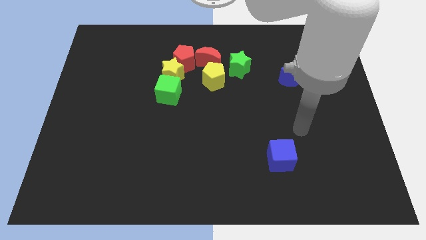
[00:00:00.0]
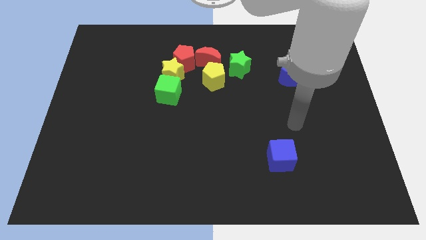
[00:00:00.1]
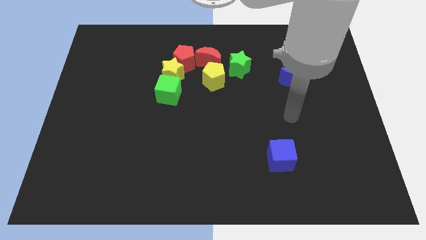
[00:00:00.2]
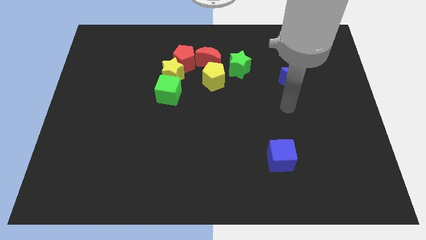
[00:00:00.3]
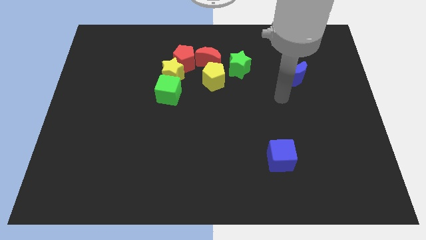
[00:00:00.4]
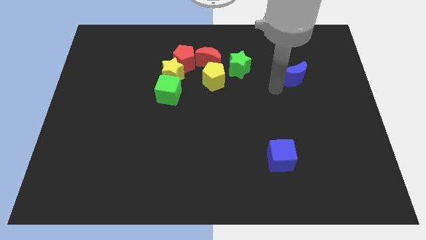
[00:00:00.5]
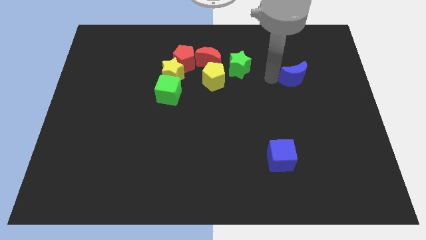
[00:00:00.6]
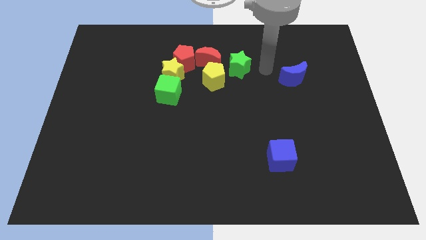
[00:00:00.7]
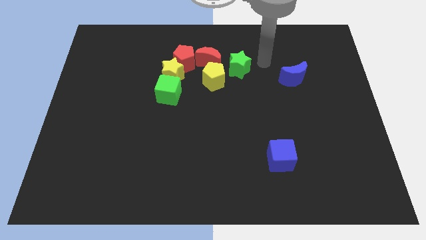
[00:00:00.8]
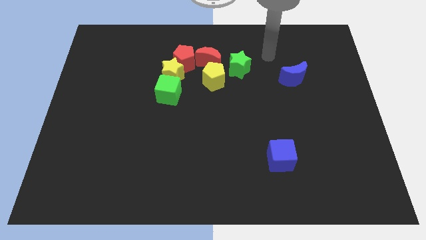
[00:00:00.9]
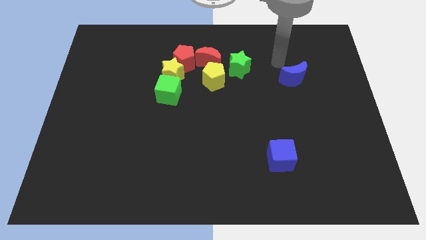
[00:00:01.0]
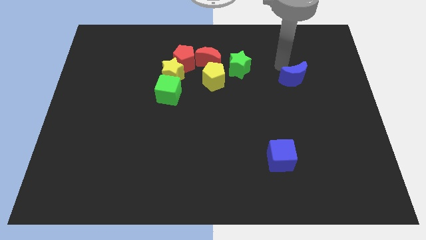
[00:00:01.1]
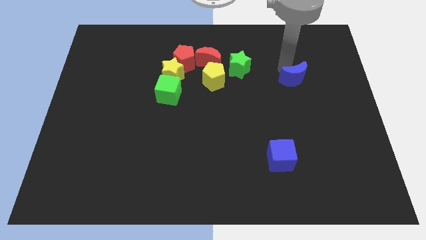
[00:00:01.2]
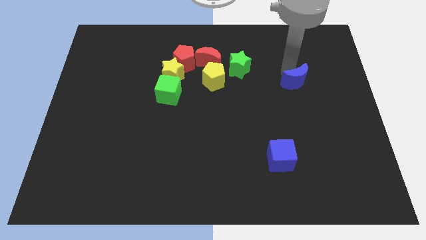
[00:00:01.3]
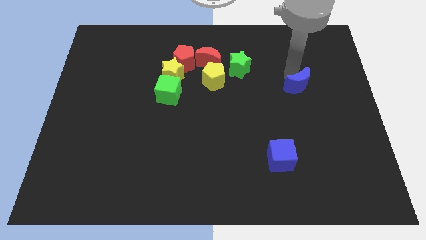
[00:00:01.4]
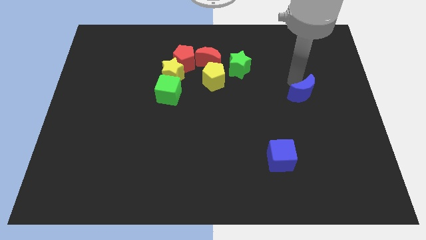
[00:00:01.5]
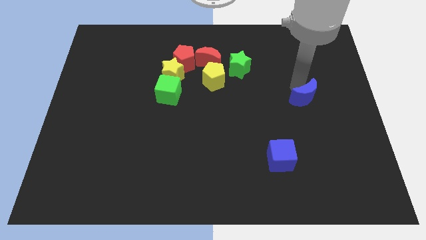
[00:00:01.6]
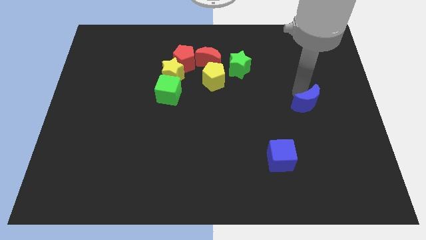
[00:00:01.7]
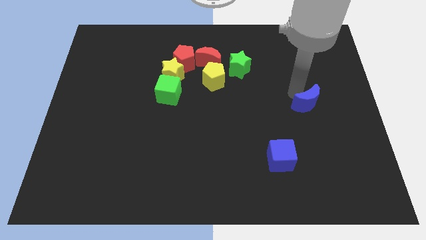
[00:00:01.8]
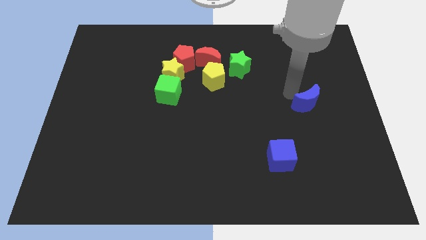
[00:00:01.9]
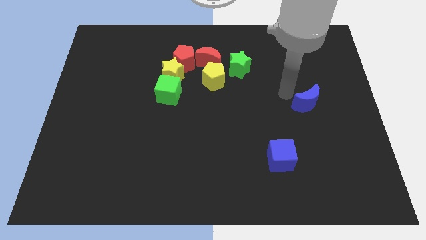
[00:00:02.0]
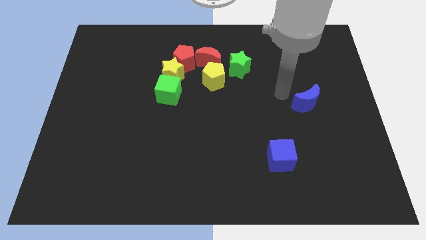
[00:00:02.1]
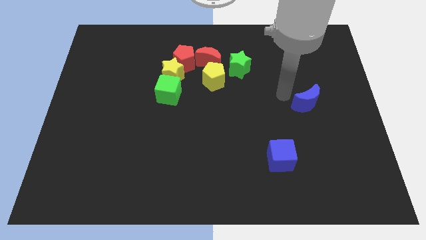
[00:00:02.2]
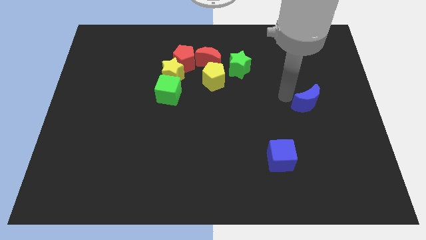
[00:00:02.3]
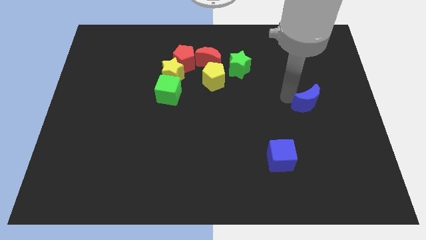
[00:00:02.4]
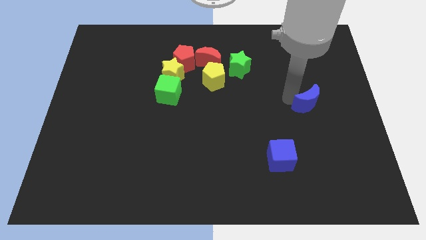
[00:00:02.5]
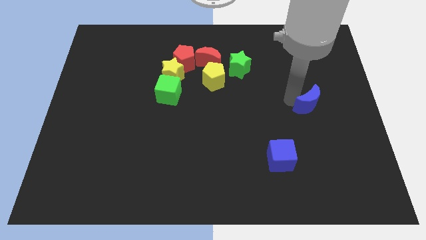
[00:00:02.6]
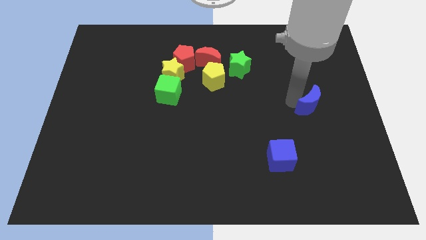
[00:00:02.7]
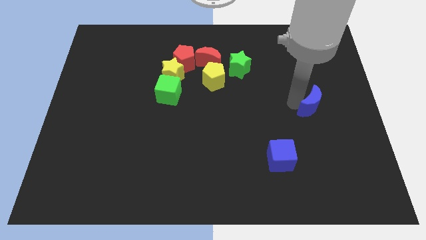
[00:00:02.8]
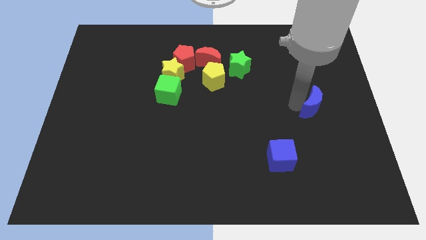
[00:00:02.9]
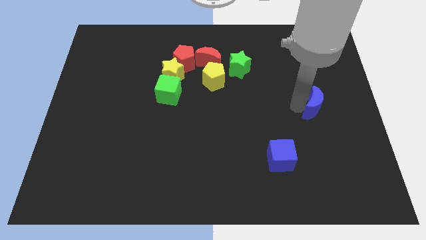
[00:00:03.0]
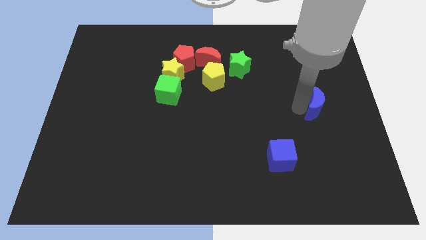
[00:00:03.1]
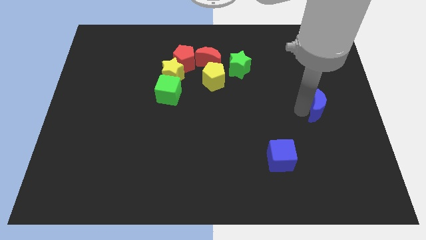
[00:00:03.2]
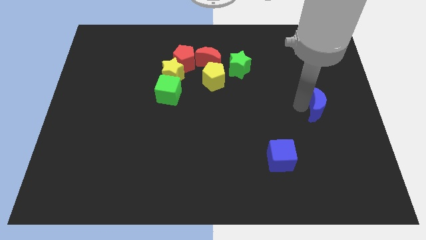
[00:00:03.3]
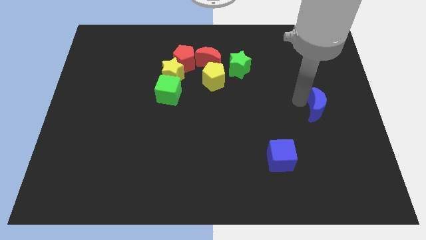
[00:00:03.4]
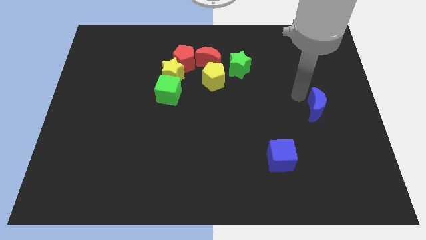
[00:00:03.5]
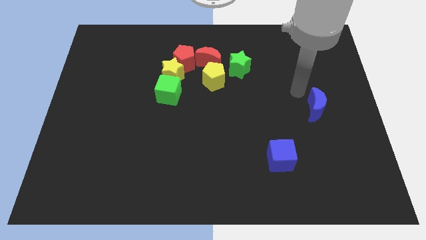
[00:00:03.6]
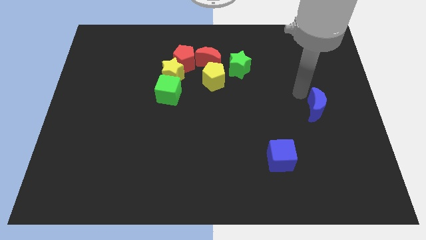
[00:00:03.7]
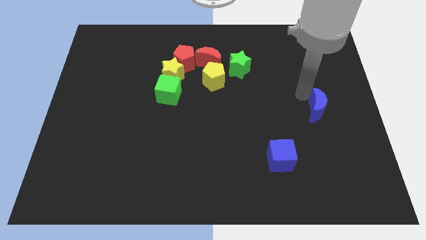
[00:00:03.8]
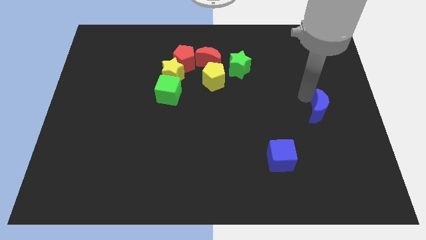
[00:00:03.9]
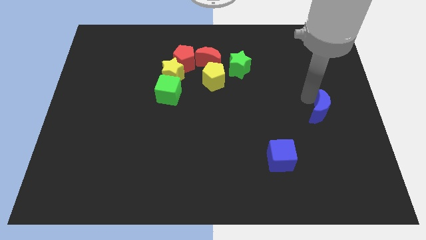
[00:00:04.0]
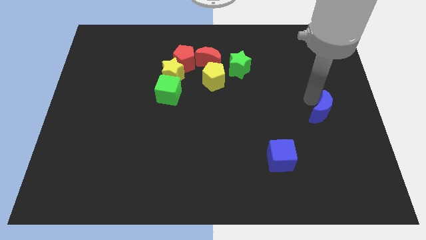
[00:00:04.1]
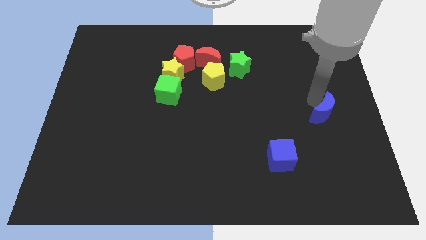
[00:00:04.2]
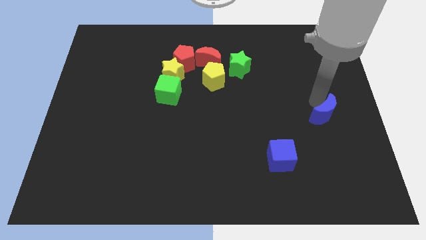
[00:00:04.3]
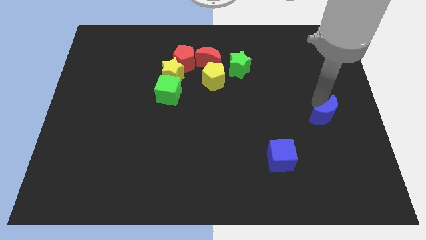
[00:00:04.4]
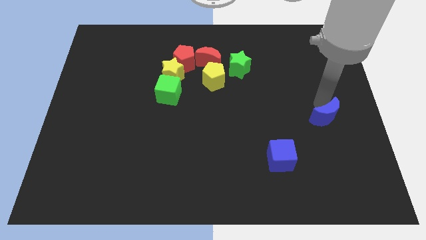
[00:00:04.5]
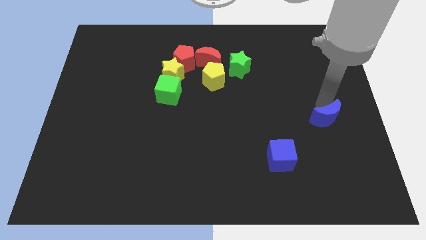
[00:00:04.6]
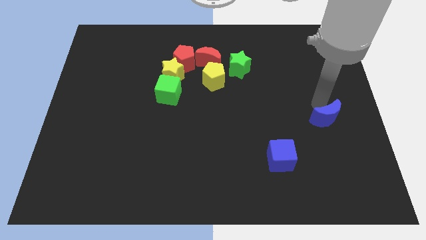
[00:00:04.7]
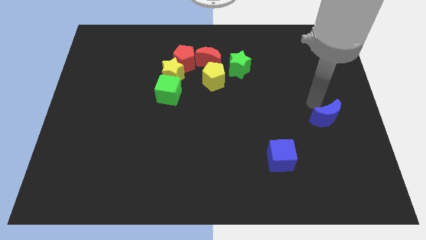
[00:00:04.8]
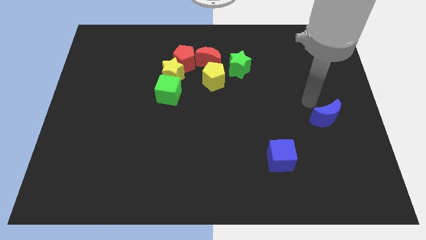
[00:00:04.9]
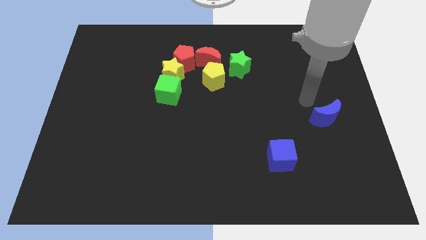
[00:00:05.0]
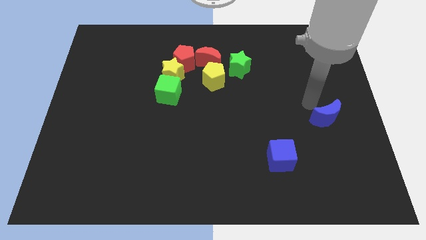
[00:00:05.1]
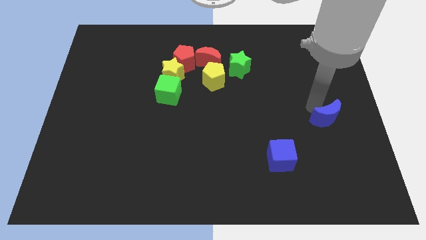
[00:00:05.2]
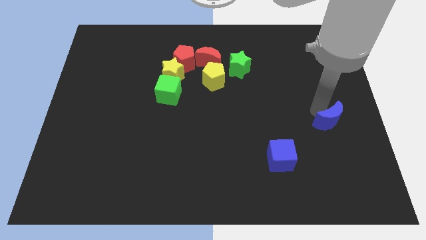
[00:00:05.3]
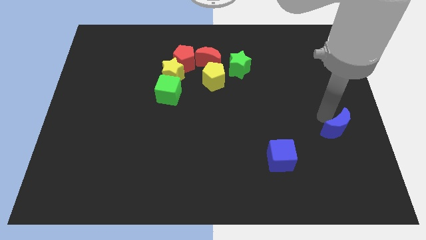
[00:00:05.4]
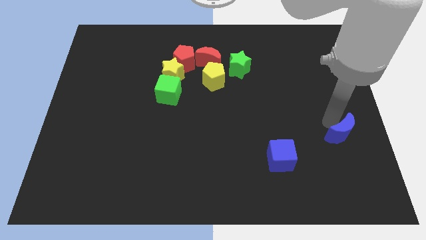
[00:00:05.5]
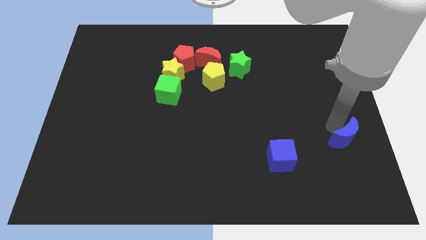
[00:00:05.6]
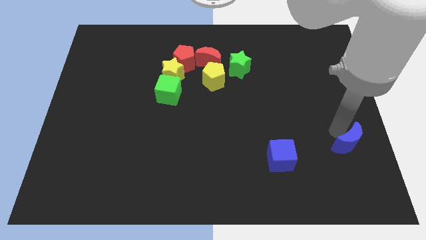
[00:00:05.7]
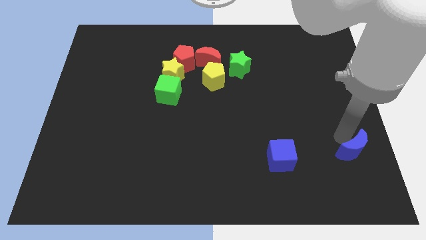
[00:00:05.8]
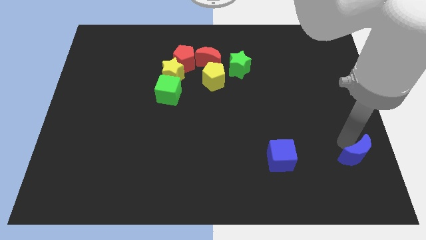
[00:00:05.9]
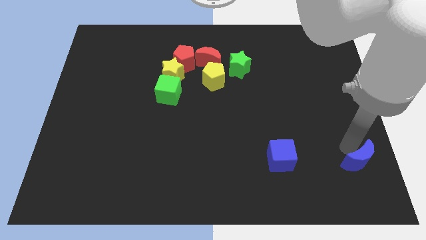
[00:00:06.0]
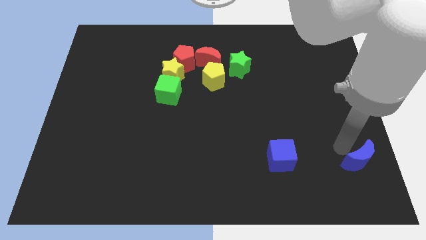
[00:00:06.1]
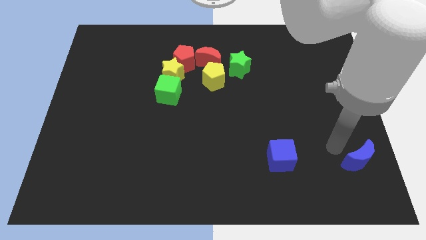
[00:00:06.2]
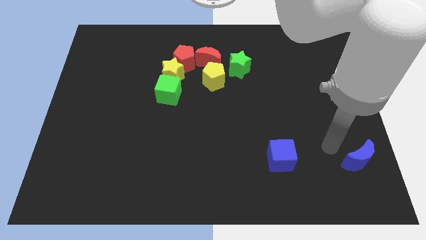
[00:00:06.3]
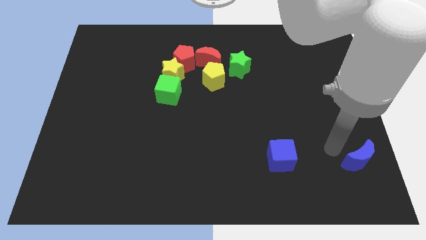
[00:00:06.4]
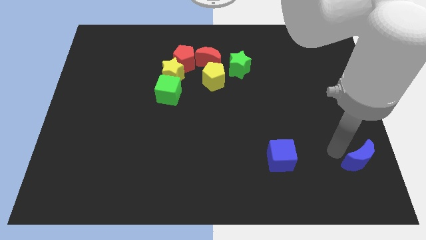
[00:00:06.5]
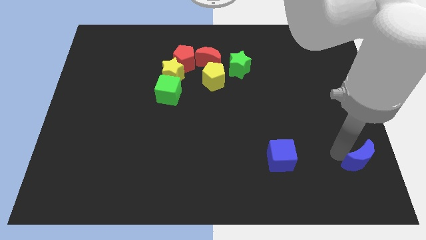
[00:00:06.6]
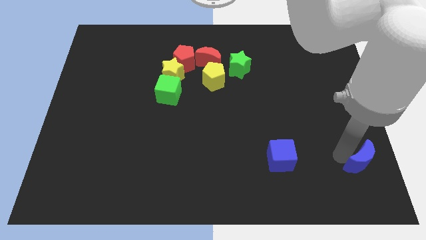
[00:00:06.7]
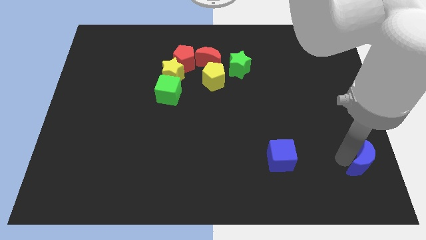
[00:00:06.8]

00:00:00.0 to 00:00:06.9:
put the blue moon to the bottom right of the board
